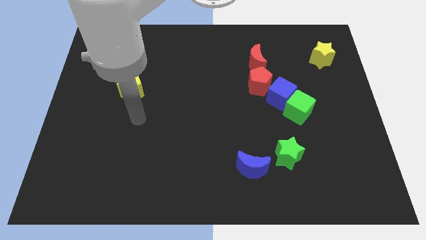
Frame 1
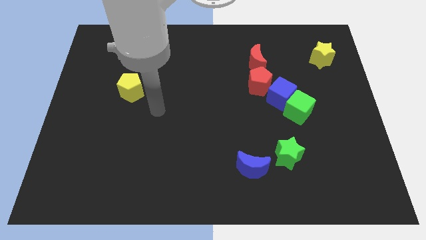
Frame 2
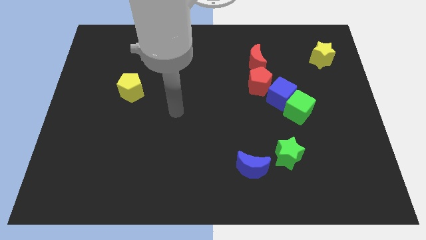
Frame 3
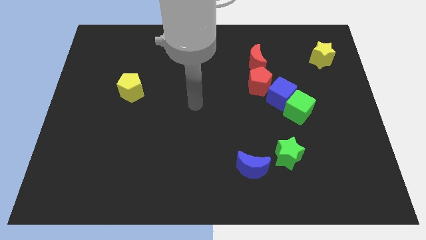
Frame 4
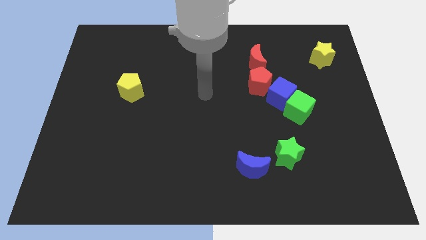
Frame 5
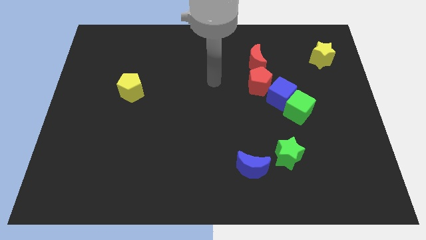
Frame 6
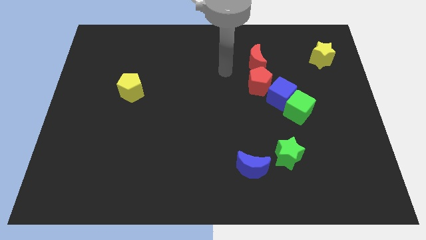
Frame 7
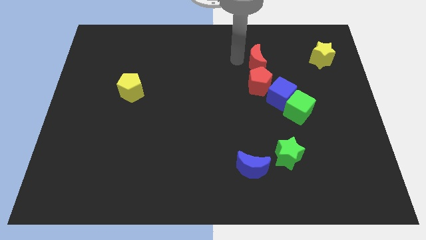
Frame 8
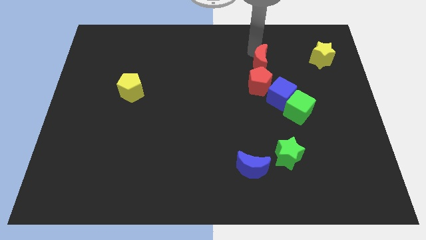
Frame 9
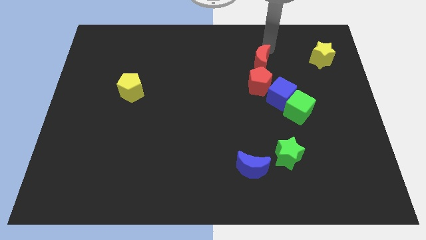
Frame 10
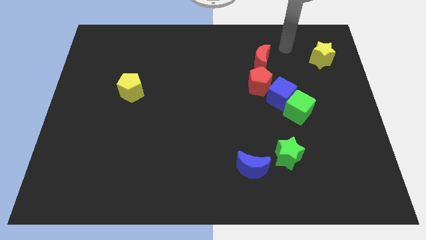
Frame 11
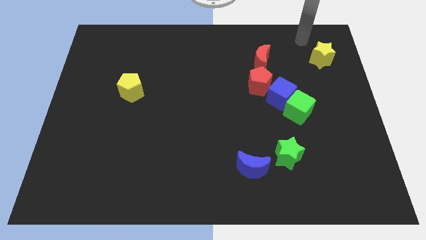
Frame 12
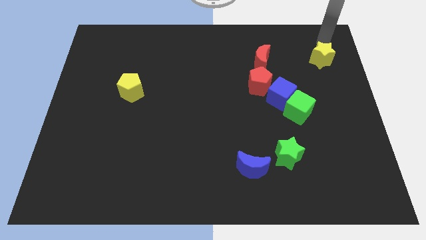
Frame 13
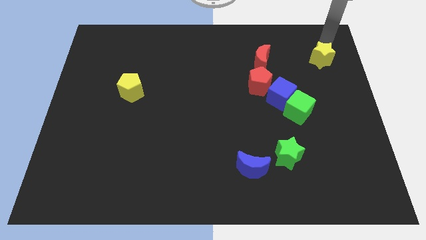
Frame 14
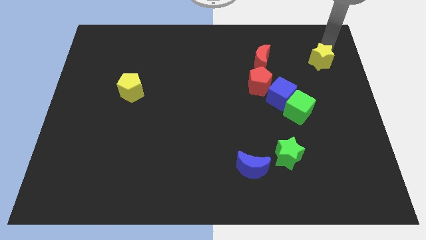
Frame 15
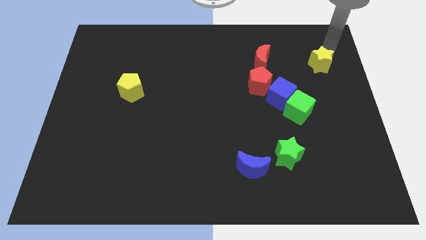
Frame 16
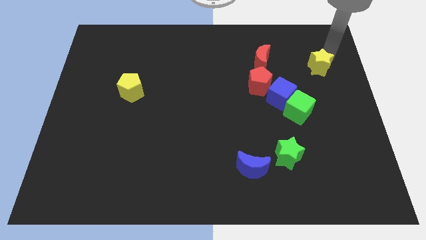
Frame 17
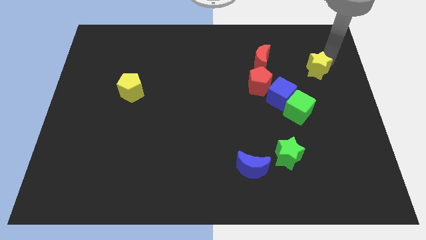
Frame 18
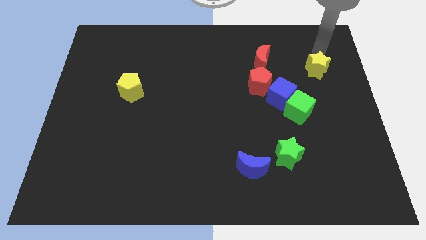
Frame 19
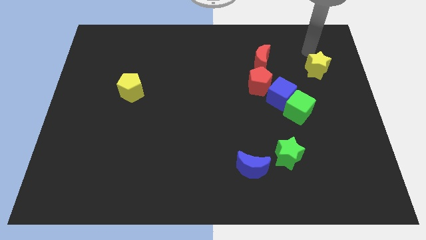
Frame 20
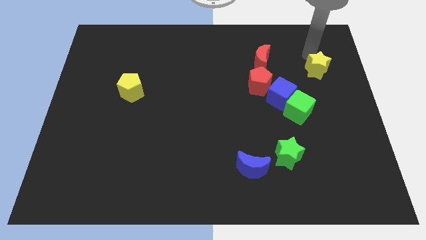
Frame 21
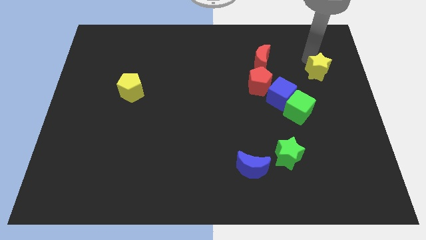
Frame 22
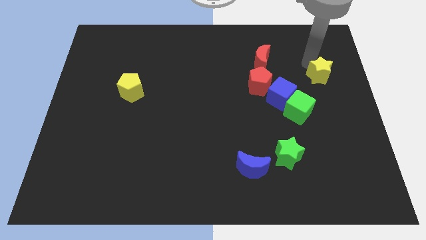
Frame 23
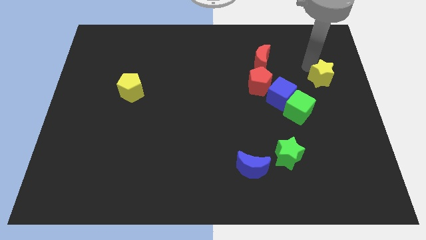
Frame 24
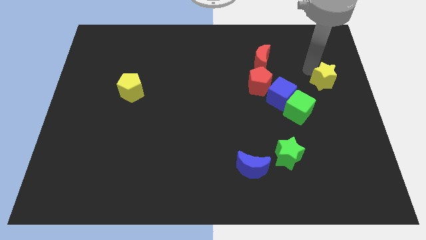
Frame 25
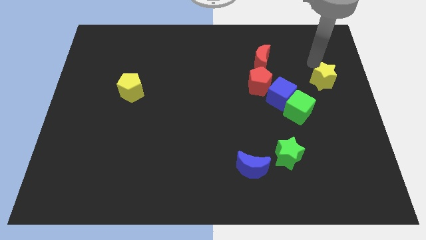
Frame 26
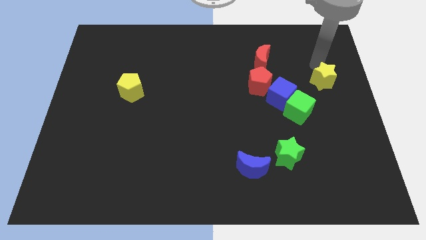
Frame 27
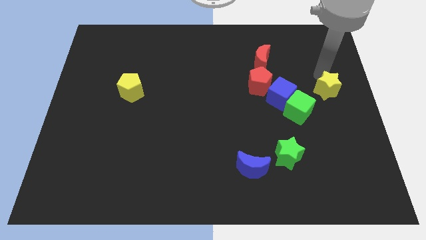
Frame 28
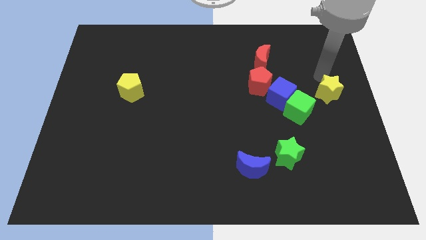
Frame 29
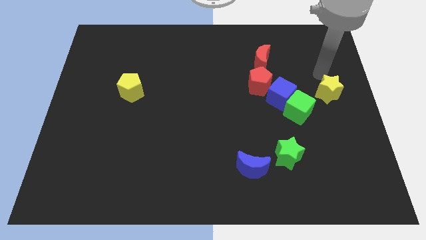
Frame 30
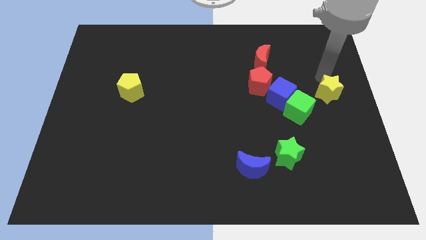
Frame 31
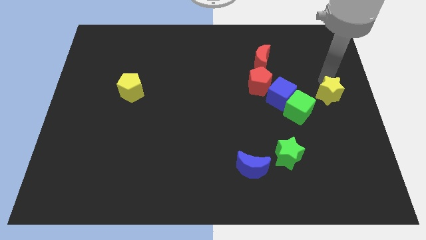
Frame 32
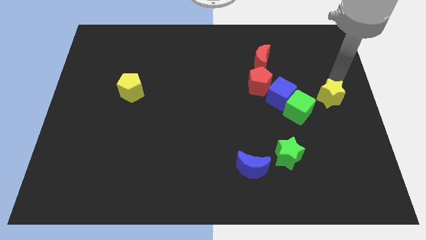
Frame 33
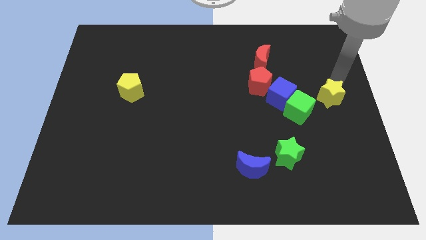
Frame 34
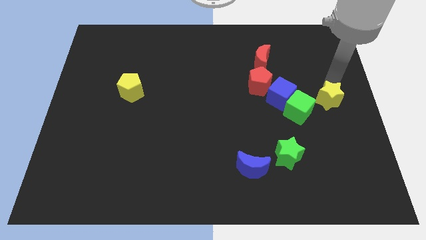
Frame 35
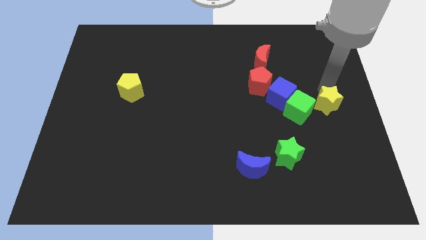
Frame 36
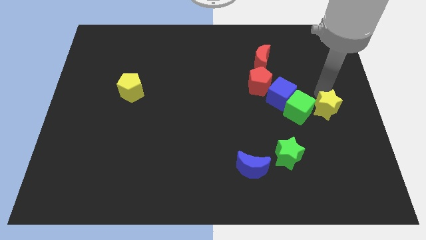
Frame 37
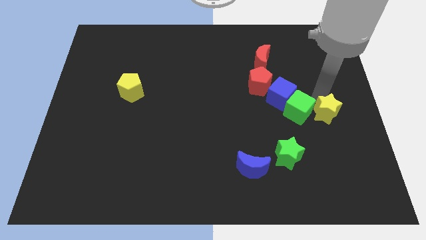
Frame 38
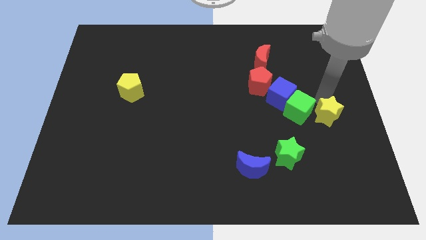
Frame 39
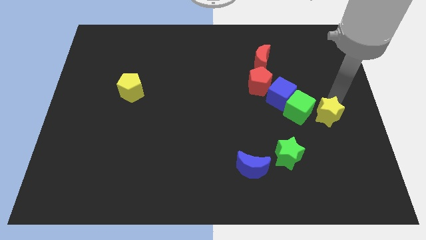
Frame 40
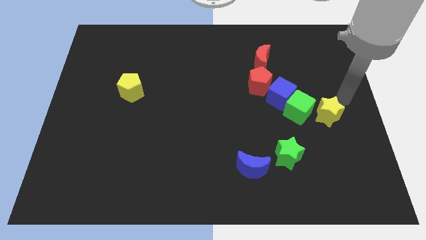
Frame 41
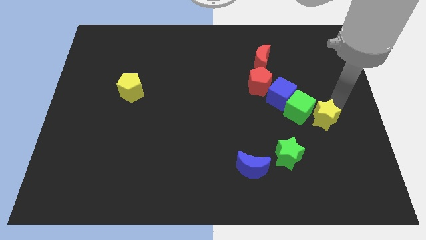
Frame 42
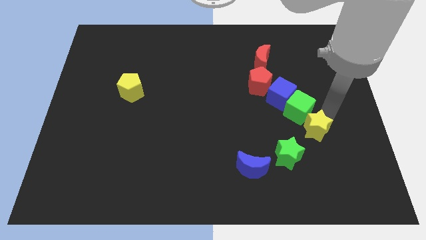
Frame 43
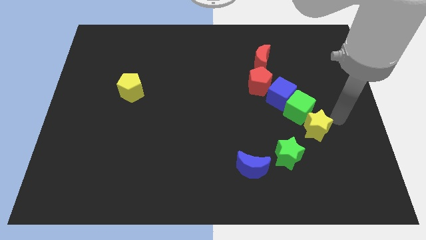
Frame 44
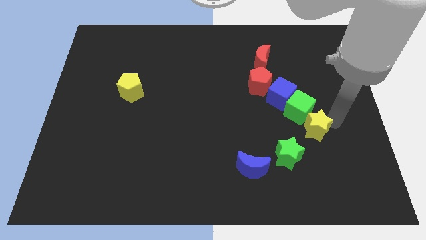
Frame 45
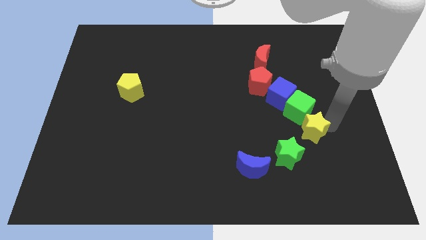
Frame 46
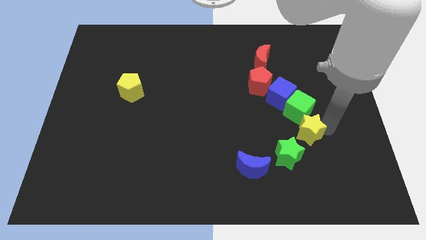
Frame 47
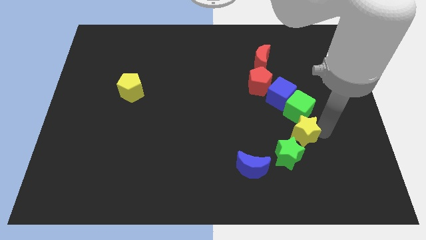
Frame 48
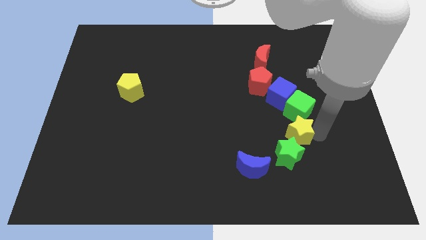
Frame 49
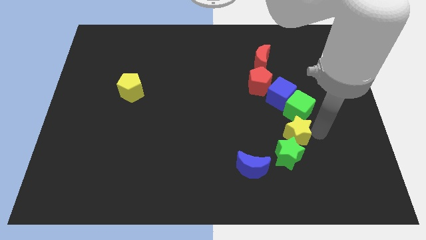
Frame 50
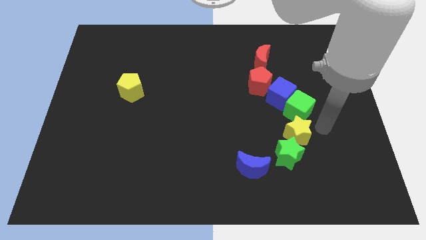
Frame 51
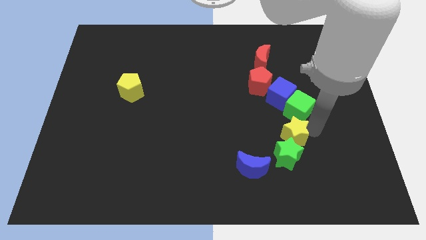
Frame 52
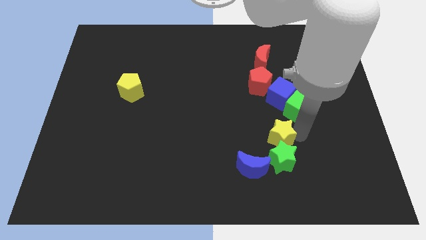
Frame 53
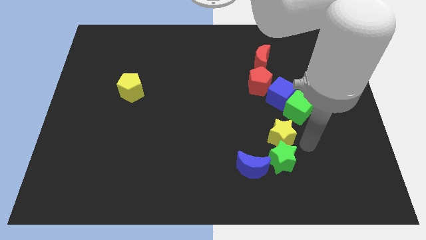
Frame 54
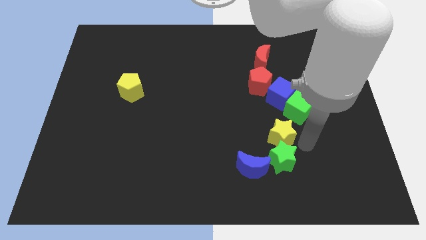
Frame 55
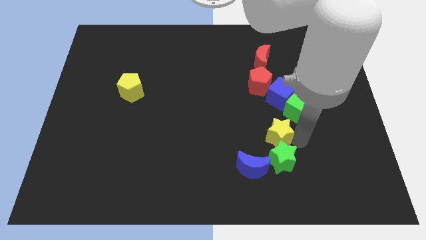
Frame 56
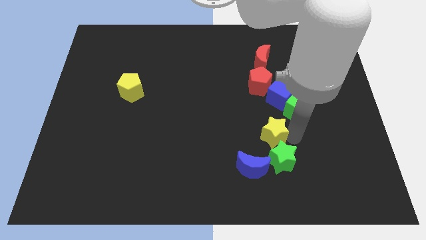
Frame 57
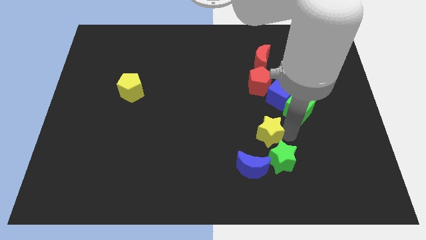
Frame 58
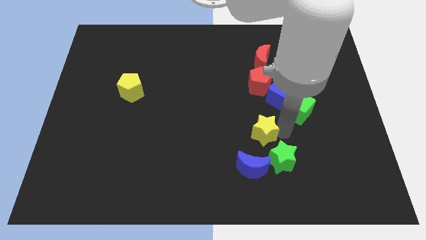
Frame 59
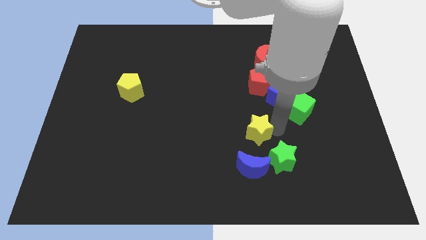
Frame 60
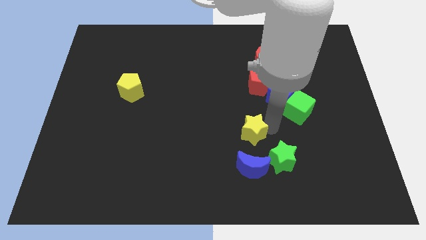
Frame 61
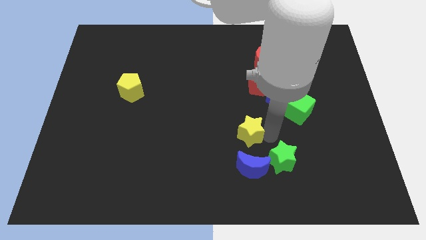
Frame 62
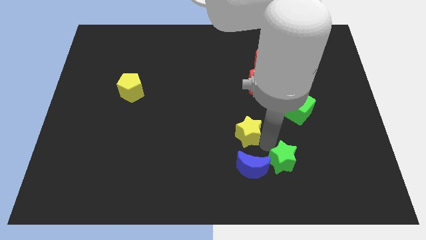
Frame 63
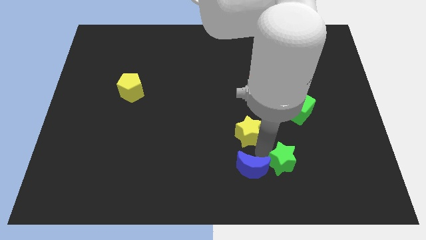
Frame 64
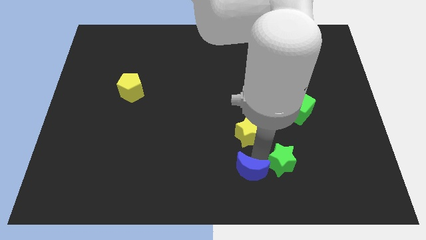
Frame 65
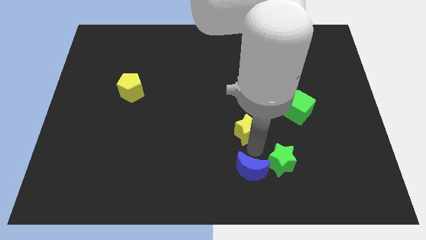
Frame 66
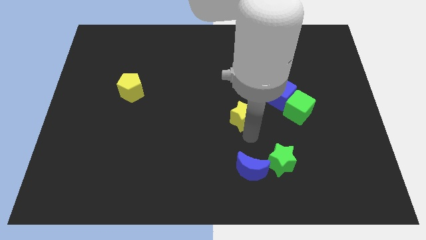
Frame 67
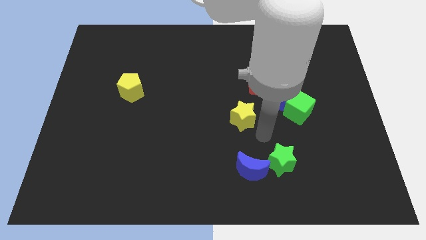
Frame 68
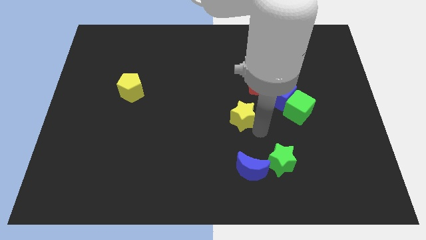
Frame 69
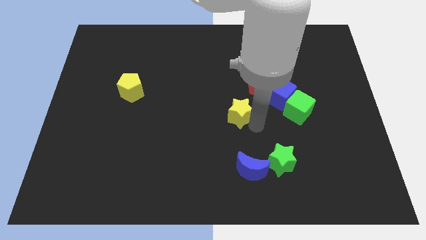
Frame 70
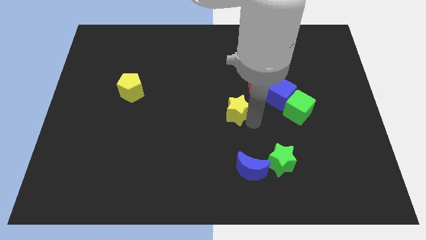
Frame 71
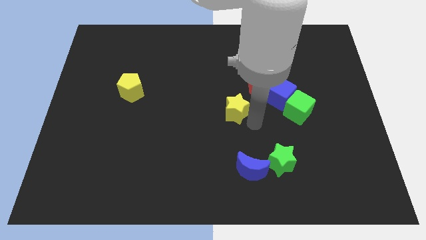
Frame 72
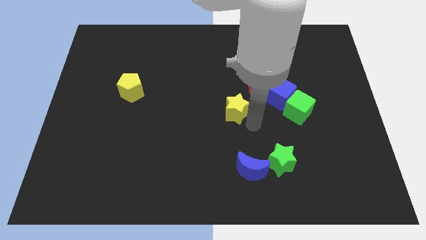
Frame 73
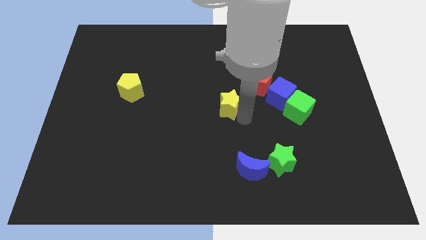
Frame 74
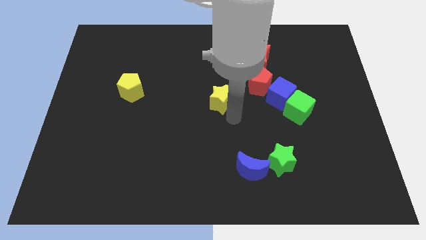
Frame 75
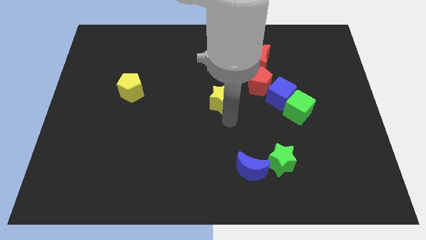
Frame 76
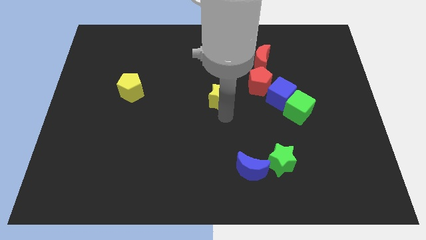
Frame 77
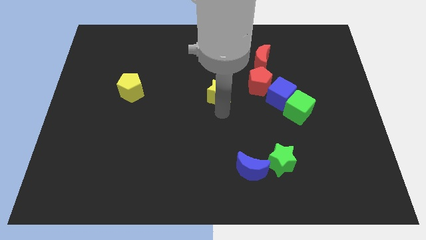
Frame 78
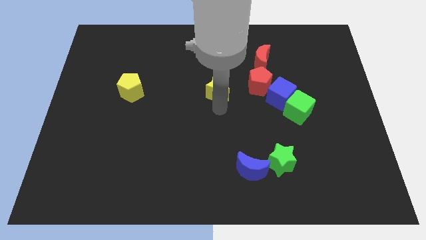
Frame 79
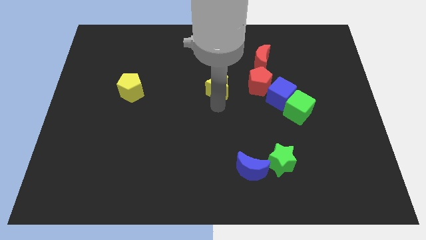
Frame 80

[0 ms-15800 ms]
move the yellow star left

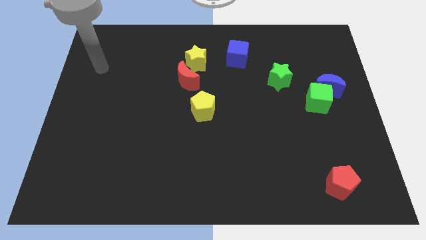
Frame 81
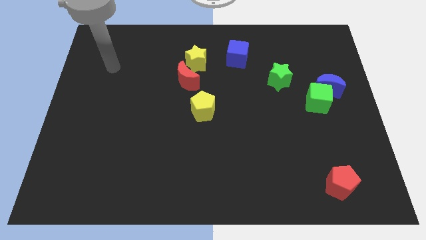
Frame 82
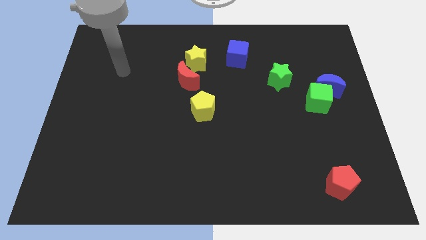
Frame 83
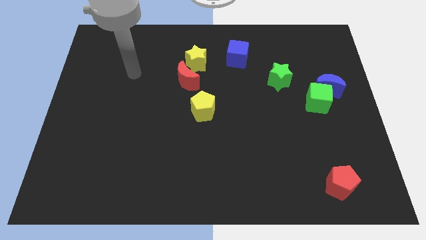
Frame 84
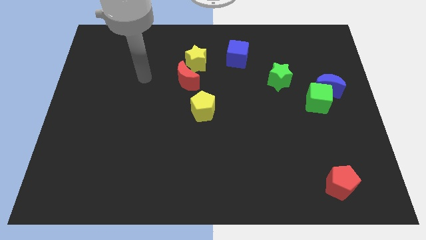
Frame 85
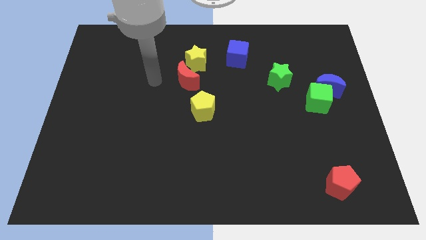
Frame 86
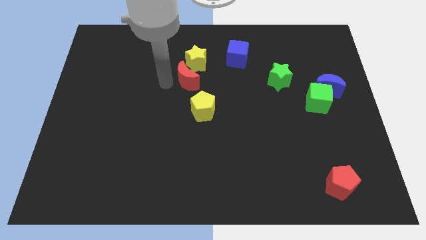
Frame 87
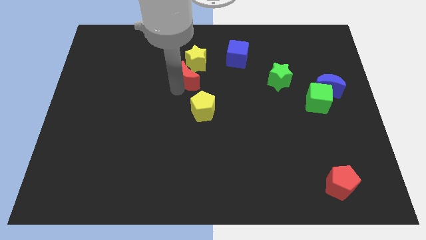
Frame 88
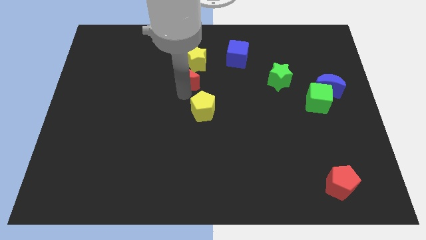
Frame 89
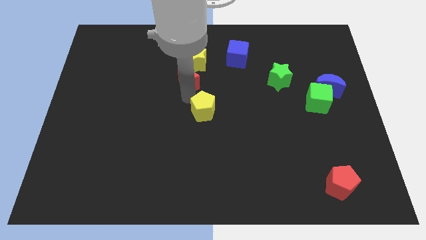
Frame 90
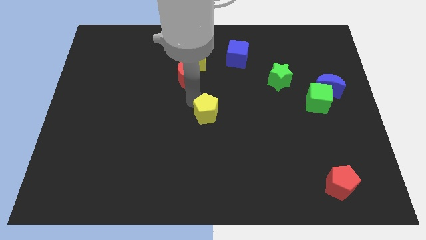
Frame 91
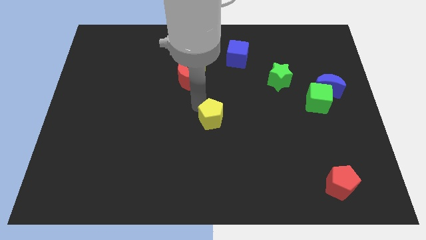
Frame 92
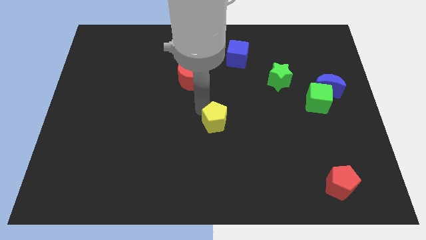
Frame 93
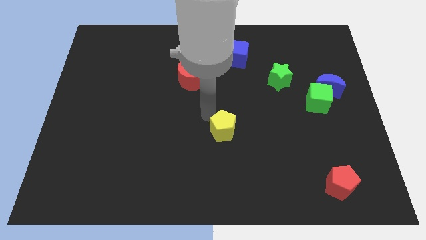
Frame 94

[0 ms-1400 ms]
push the yellow pentagon a little downwards and then to the right
